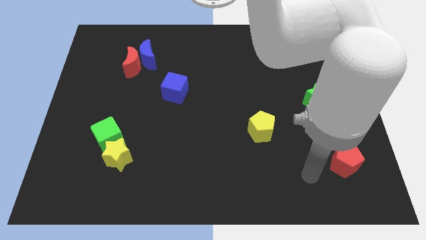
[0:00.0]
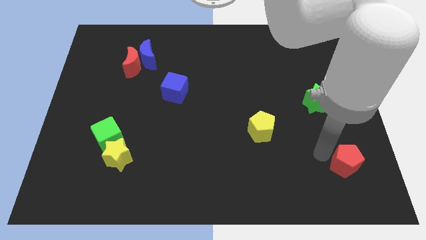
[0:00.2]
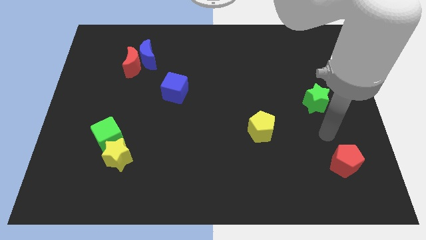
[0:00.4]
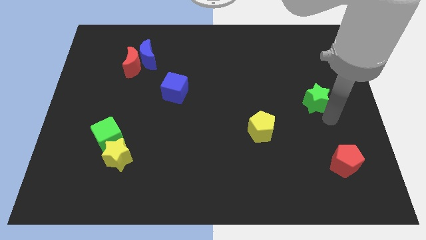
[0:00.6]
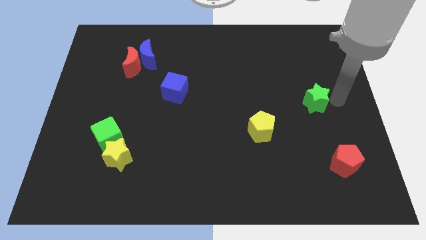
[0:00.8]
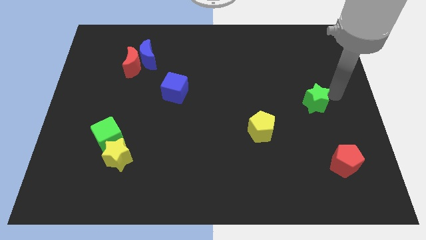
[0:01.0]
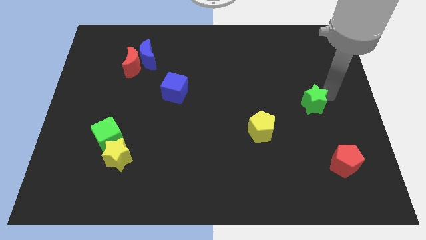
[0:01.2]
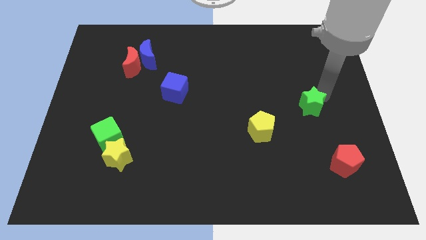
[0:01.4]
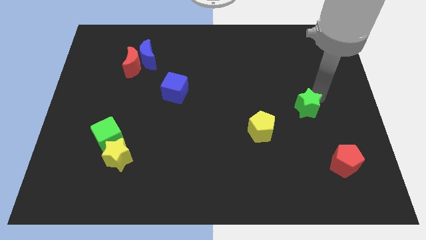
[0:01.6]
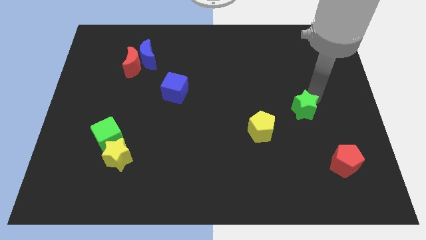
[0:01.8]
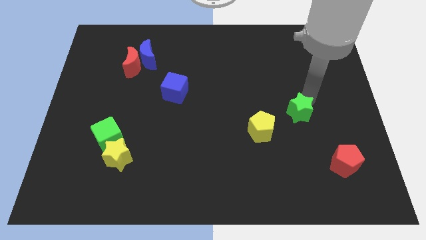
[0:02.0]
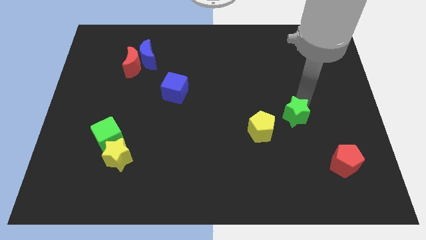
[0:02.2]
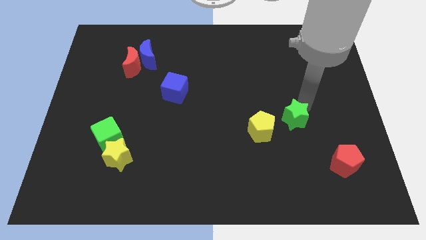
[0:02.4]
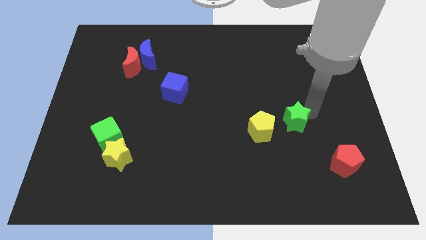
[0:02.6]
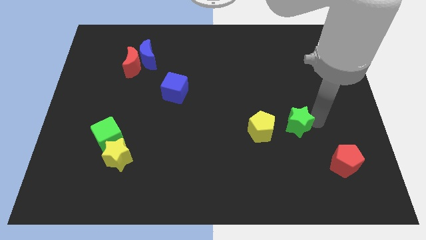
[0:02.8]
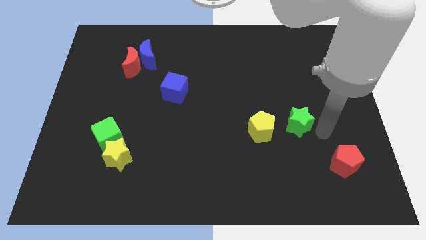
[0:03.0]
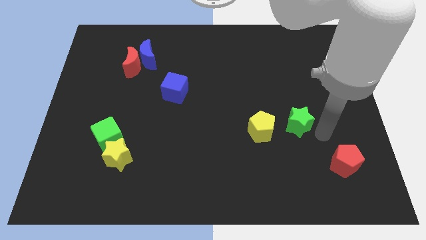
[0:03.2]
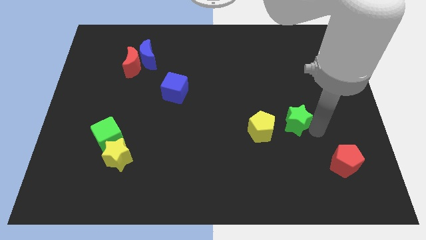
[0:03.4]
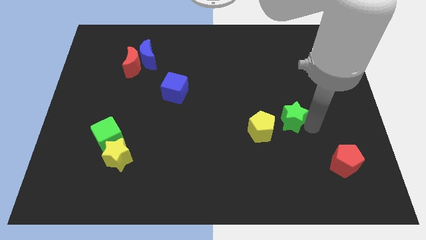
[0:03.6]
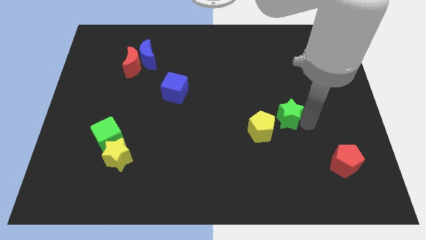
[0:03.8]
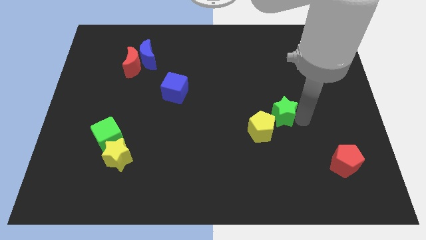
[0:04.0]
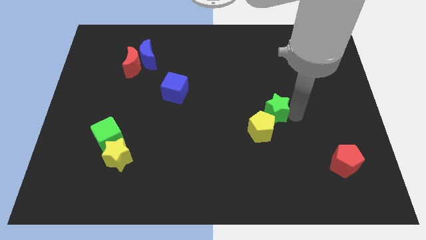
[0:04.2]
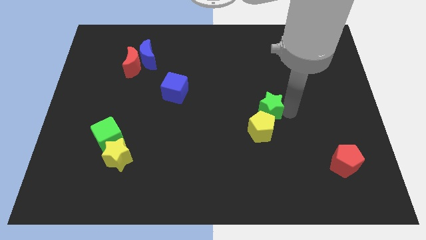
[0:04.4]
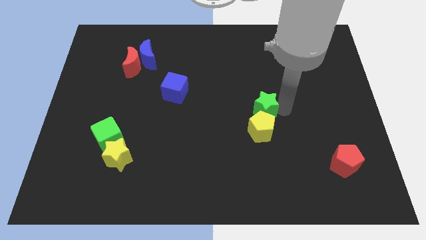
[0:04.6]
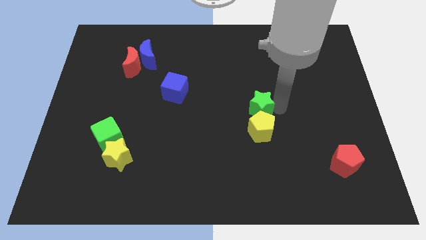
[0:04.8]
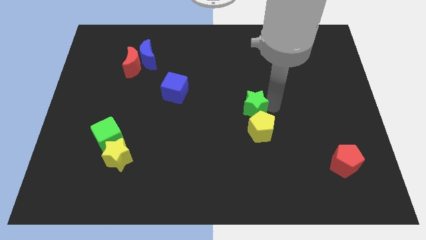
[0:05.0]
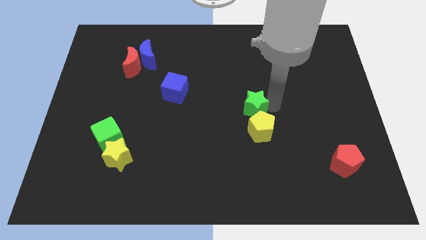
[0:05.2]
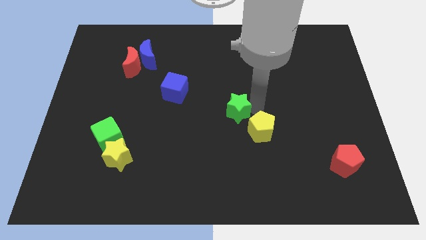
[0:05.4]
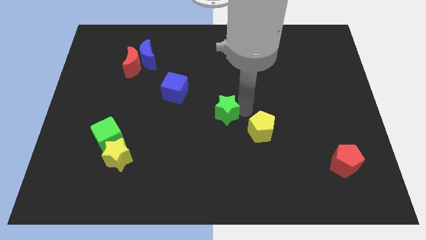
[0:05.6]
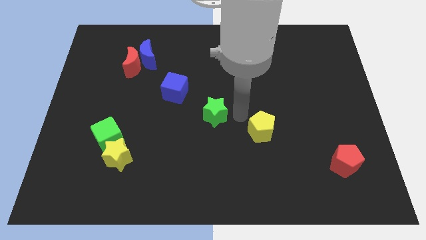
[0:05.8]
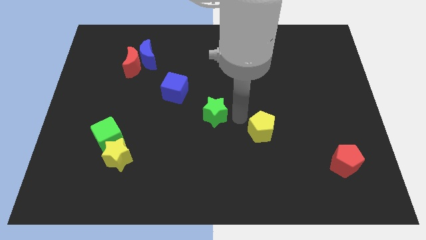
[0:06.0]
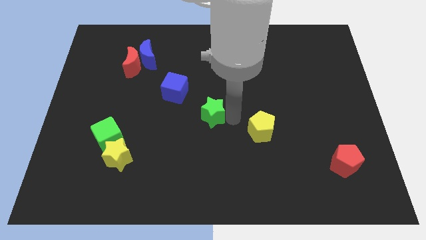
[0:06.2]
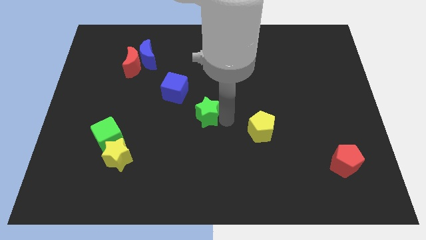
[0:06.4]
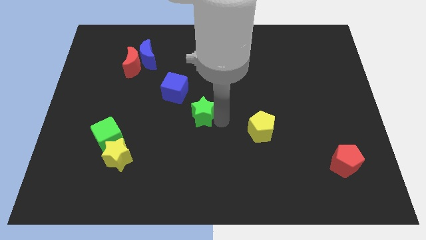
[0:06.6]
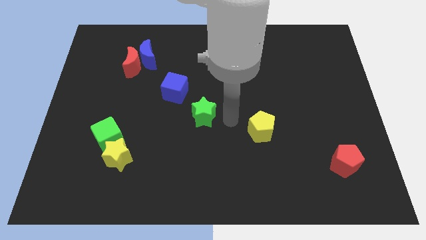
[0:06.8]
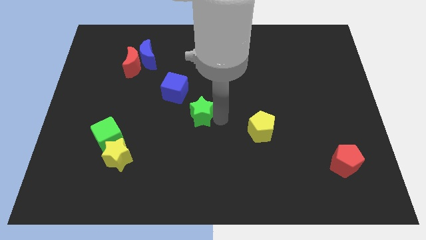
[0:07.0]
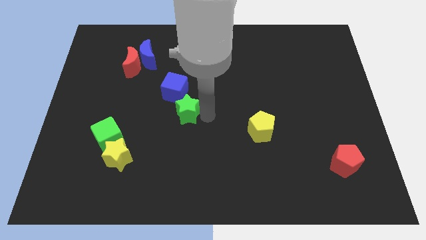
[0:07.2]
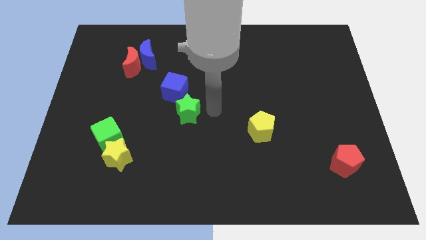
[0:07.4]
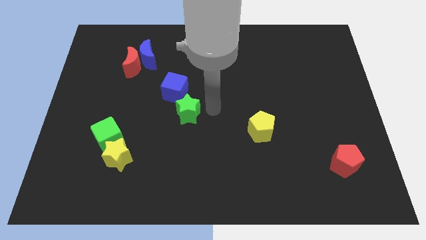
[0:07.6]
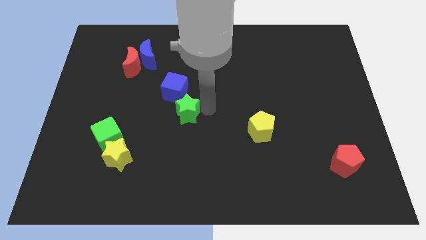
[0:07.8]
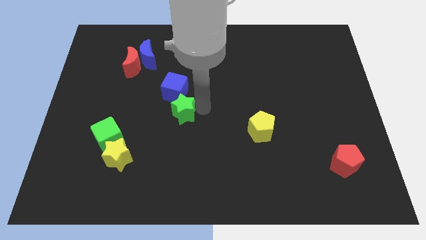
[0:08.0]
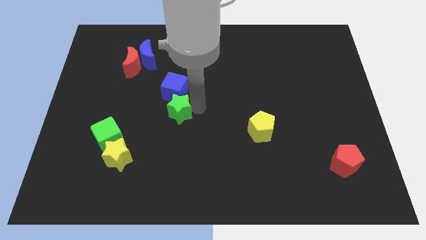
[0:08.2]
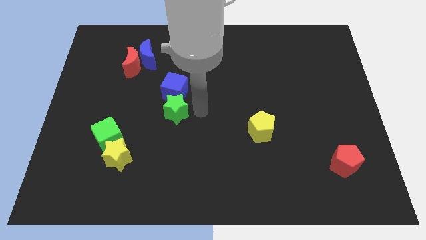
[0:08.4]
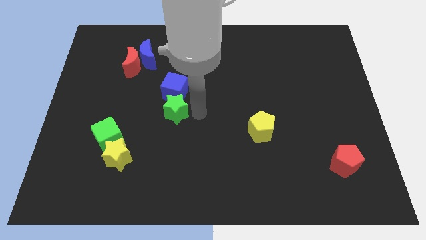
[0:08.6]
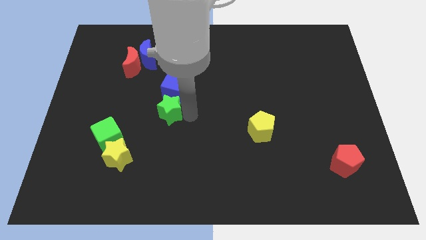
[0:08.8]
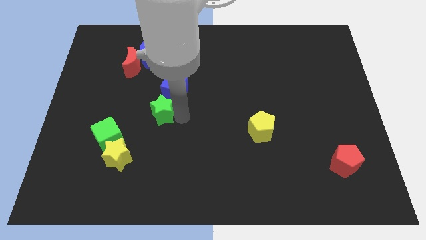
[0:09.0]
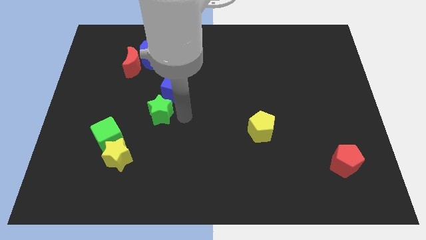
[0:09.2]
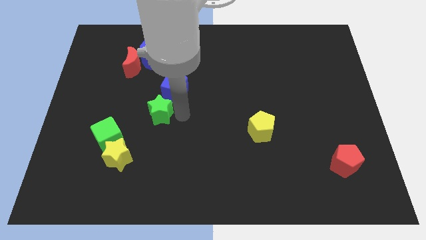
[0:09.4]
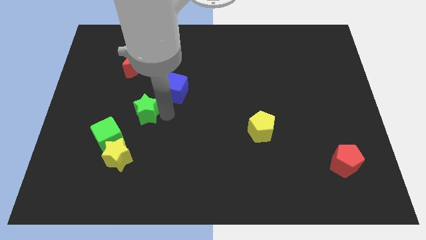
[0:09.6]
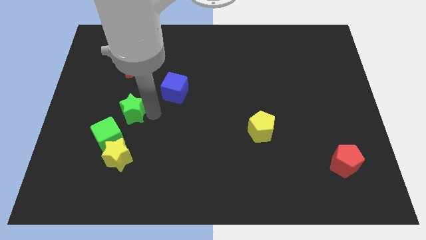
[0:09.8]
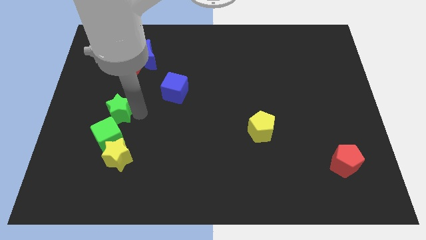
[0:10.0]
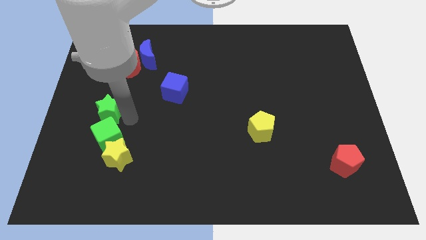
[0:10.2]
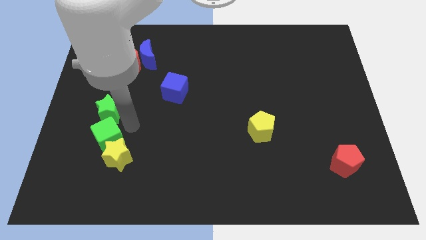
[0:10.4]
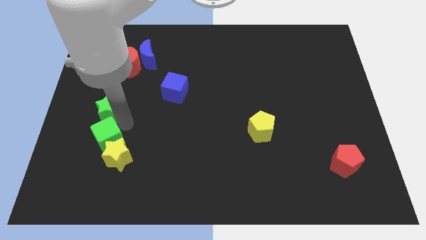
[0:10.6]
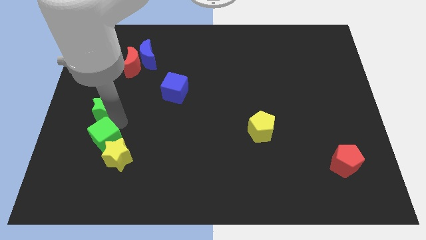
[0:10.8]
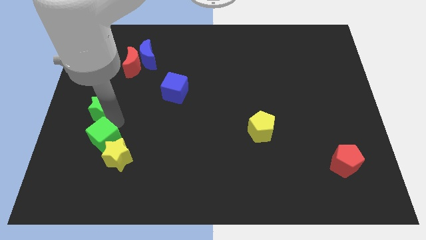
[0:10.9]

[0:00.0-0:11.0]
move the green star to the left side

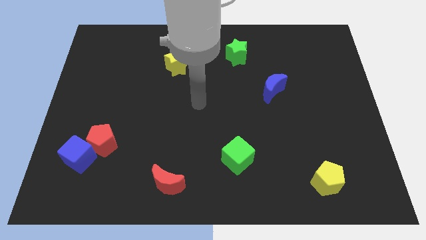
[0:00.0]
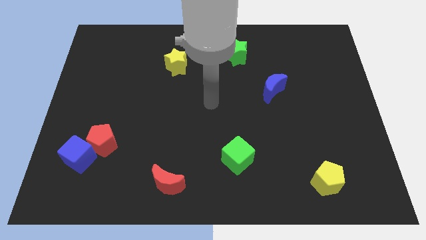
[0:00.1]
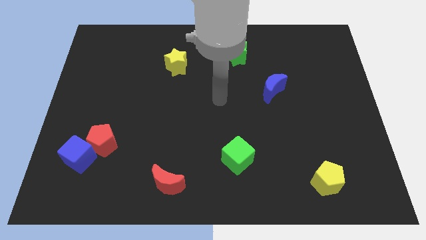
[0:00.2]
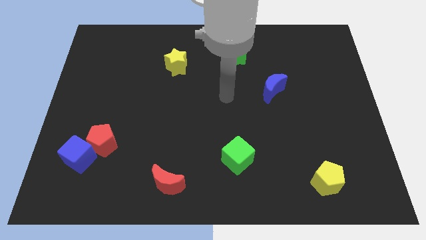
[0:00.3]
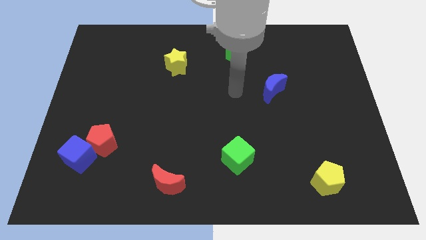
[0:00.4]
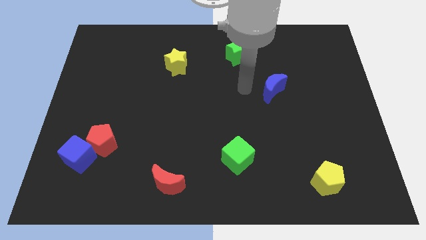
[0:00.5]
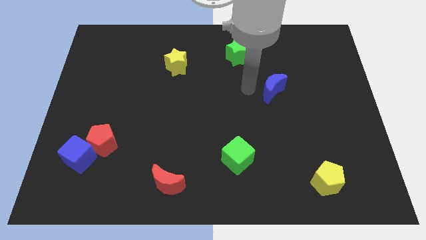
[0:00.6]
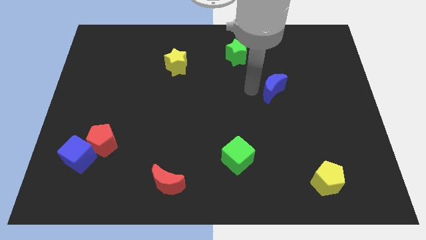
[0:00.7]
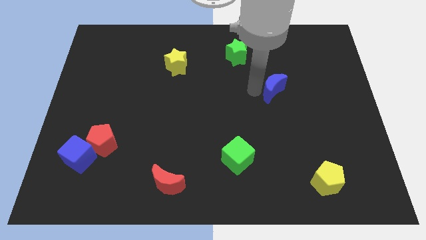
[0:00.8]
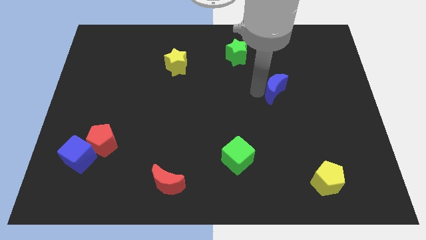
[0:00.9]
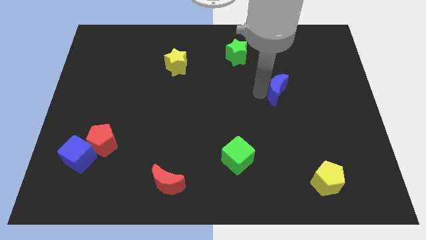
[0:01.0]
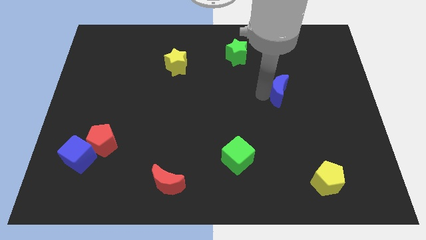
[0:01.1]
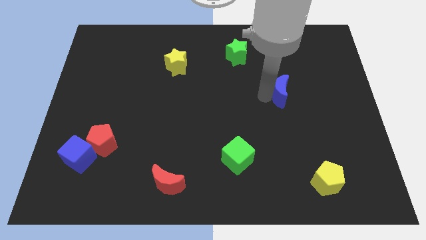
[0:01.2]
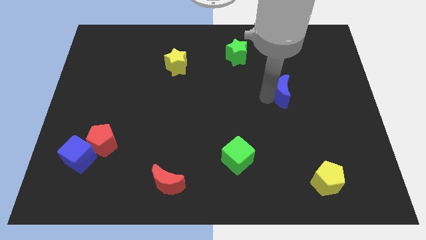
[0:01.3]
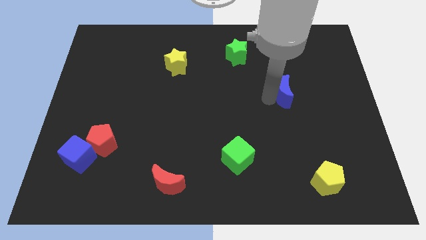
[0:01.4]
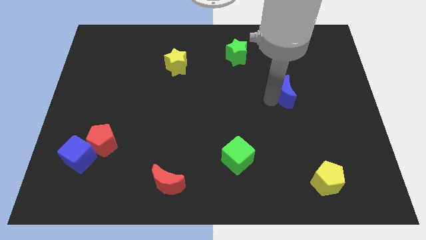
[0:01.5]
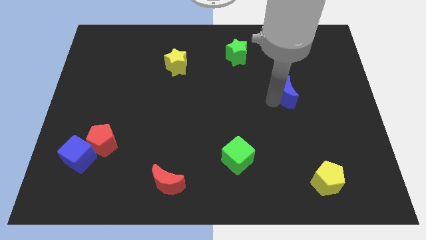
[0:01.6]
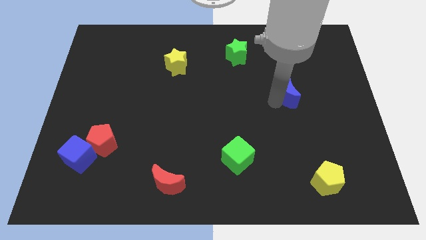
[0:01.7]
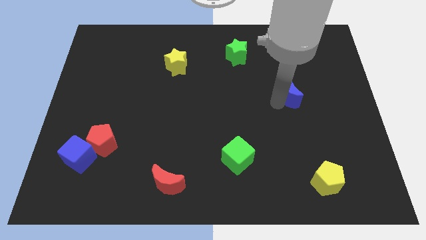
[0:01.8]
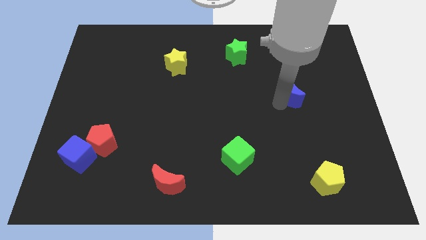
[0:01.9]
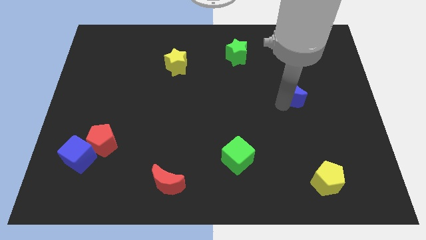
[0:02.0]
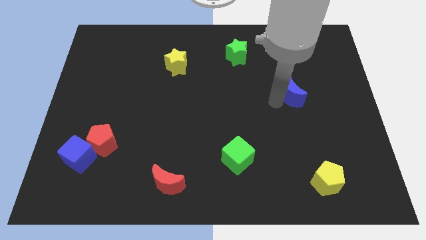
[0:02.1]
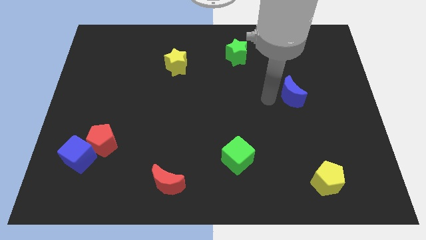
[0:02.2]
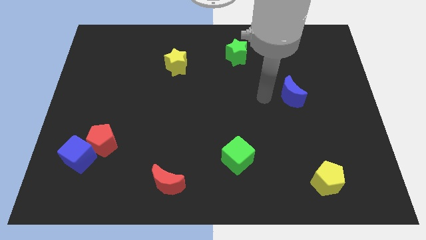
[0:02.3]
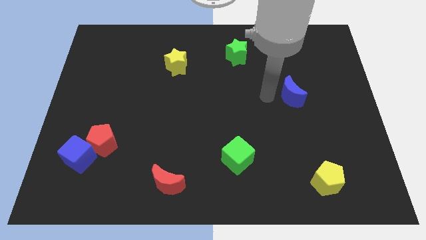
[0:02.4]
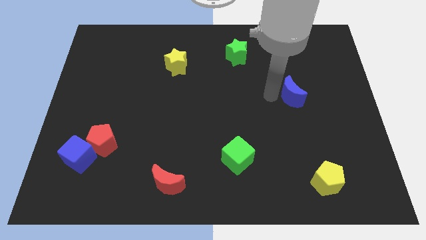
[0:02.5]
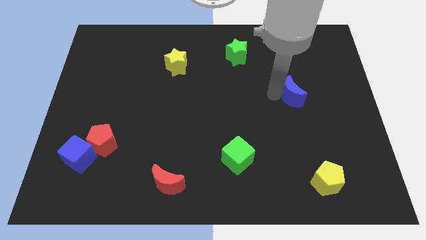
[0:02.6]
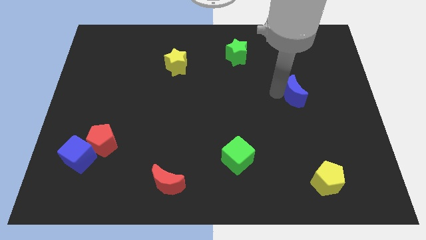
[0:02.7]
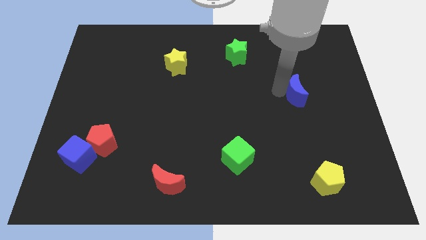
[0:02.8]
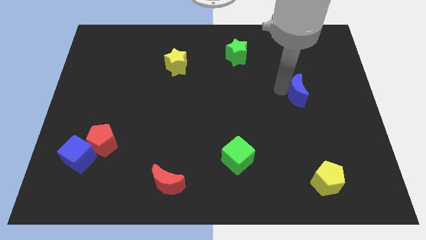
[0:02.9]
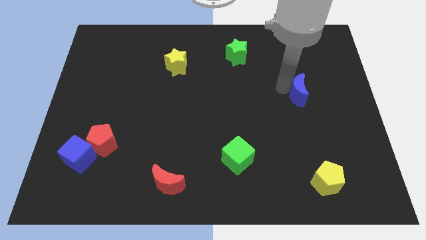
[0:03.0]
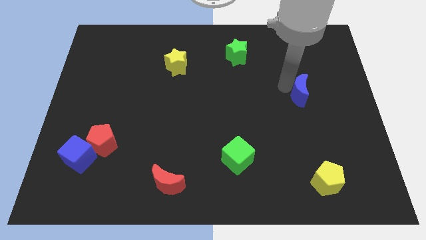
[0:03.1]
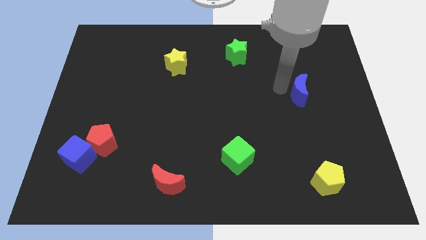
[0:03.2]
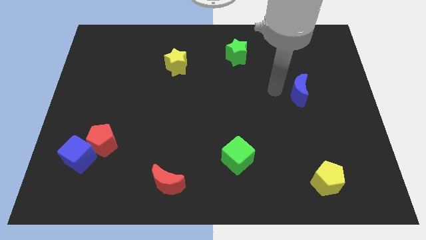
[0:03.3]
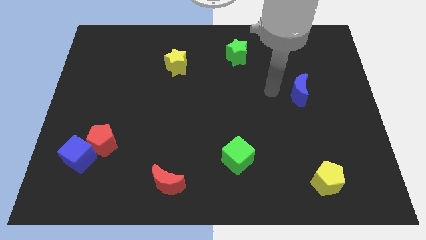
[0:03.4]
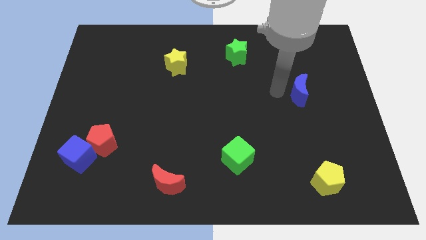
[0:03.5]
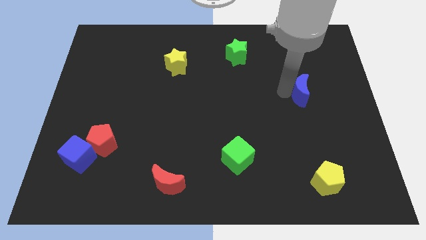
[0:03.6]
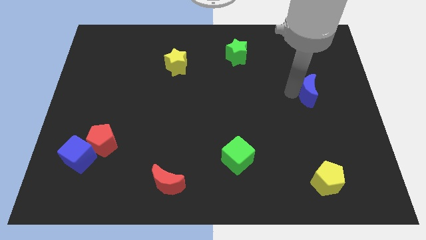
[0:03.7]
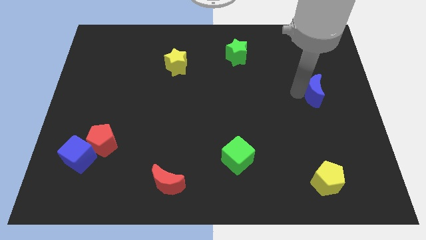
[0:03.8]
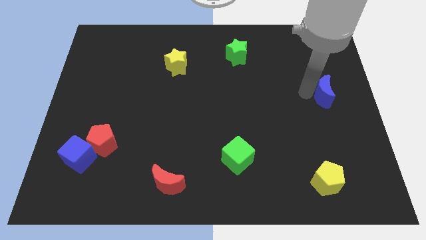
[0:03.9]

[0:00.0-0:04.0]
put the blue moon to the right side
